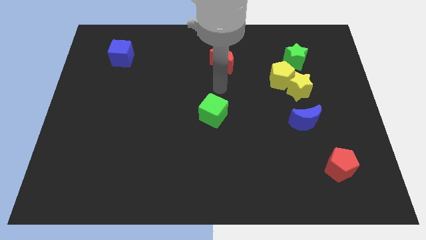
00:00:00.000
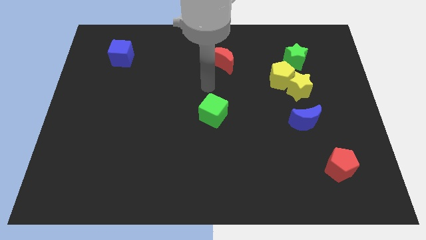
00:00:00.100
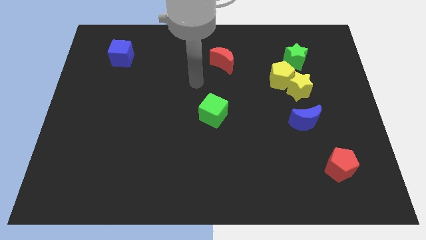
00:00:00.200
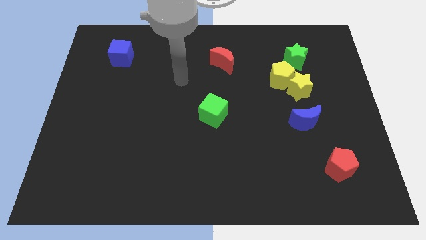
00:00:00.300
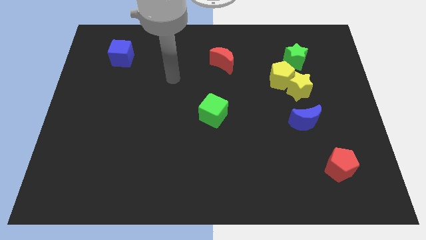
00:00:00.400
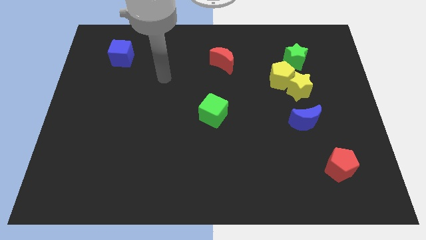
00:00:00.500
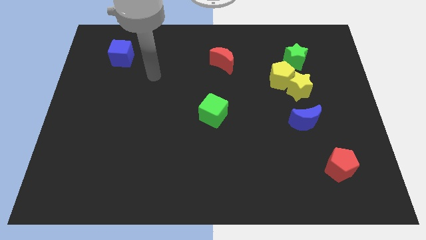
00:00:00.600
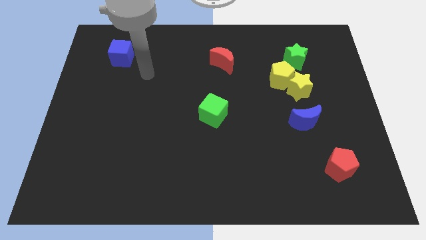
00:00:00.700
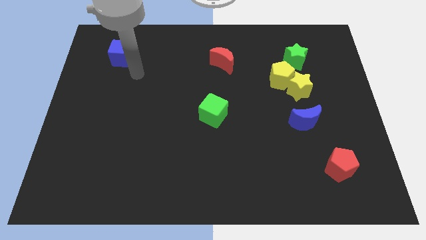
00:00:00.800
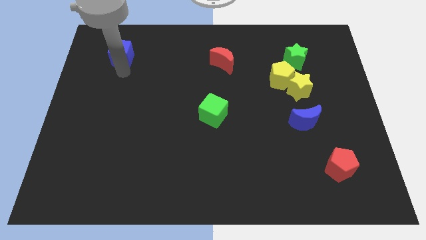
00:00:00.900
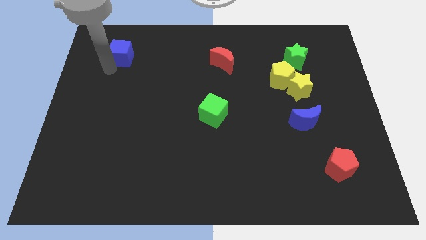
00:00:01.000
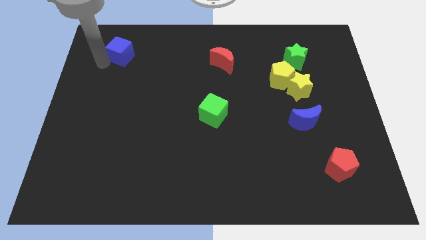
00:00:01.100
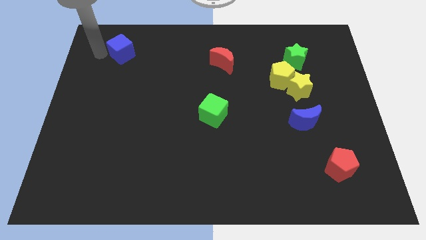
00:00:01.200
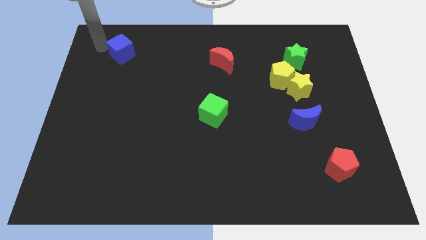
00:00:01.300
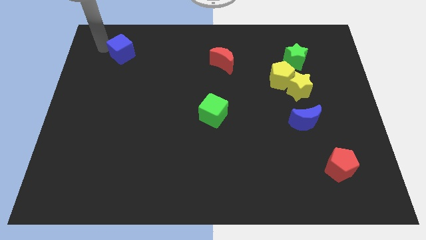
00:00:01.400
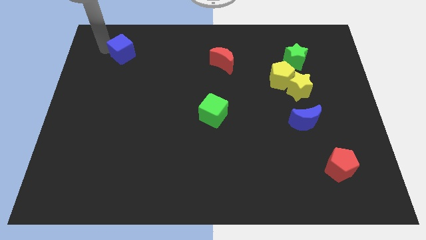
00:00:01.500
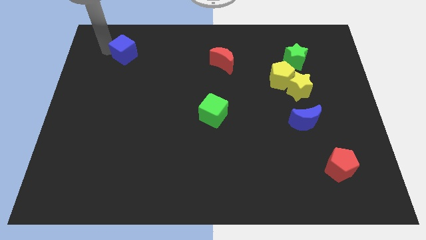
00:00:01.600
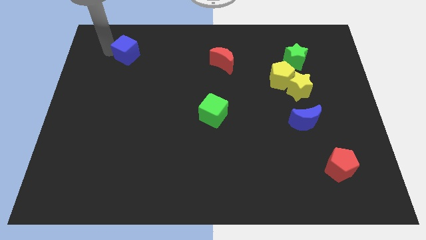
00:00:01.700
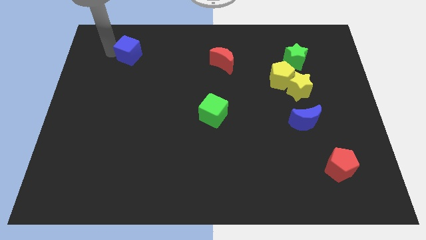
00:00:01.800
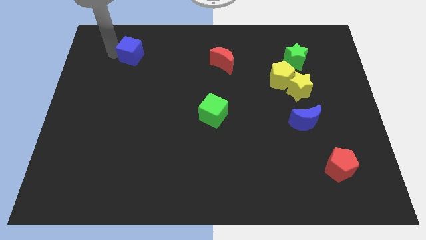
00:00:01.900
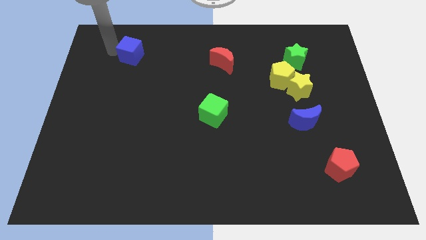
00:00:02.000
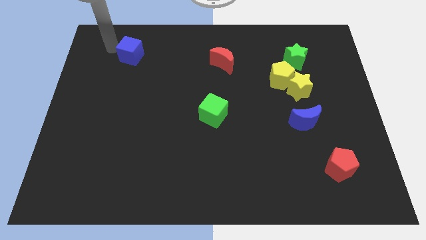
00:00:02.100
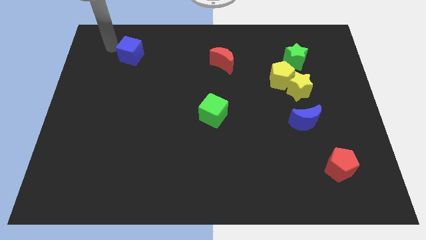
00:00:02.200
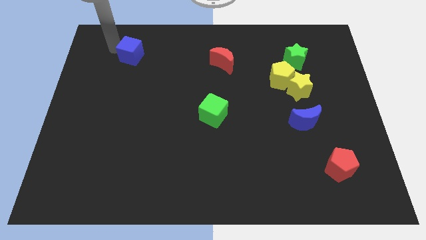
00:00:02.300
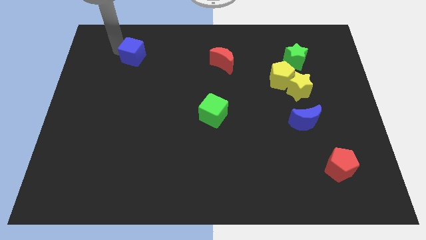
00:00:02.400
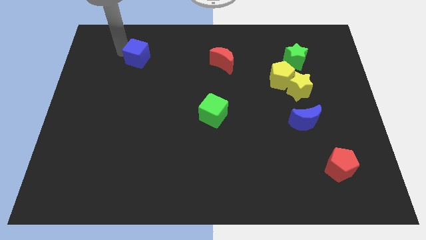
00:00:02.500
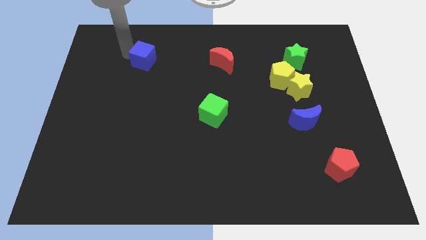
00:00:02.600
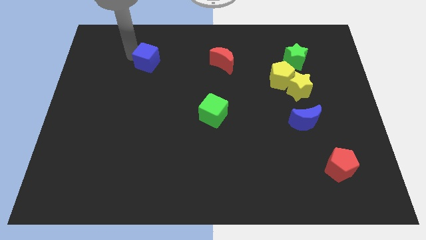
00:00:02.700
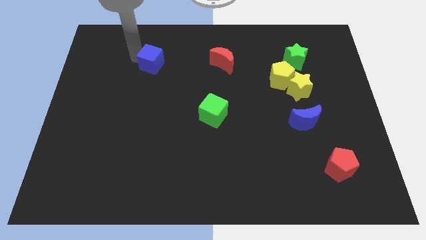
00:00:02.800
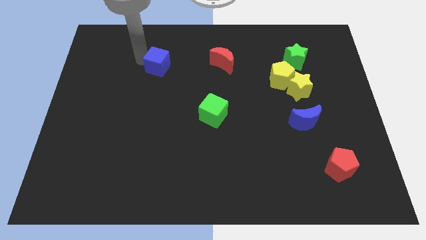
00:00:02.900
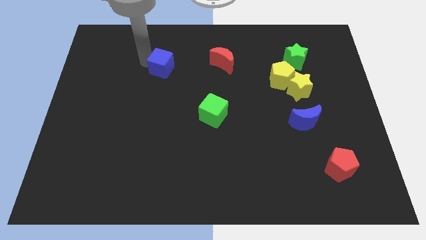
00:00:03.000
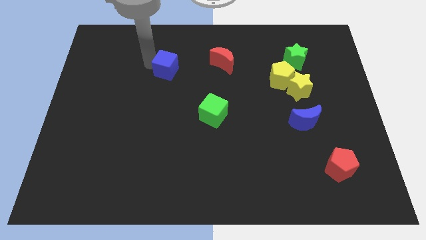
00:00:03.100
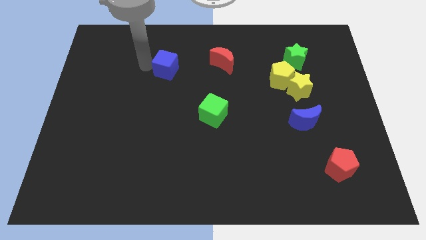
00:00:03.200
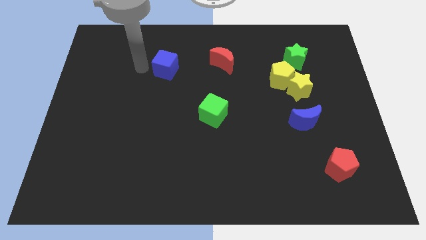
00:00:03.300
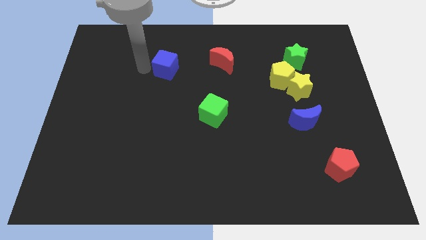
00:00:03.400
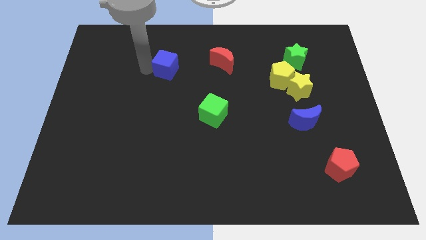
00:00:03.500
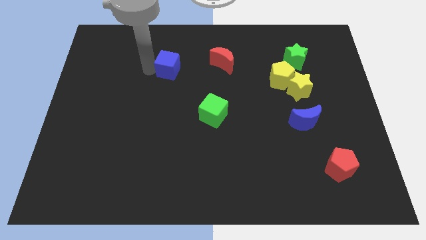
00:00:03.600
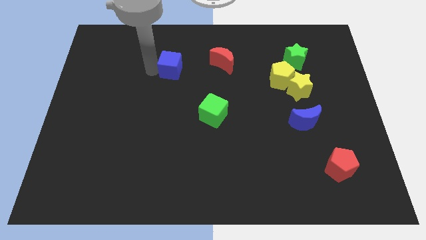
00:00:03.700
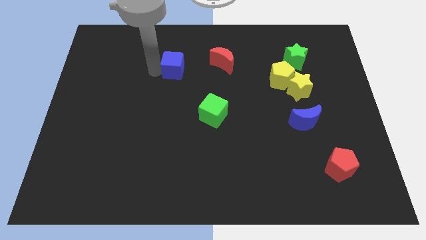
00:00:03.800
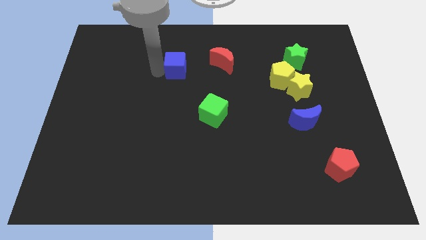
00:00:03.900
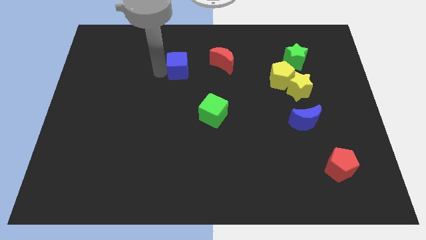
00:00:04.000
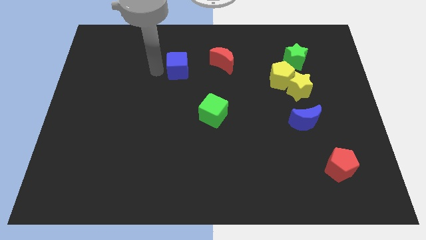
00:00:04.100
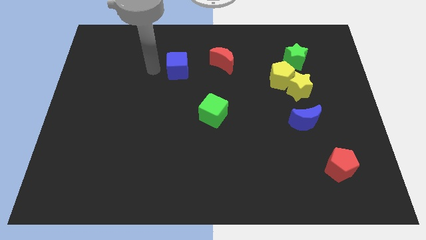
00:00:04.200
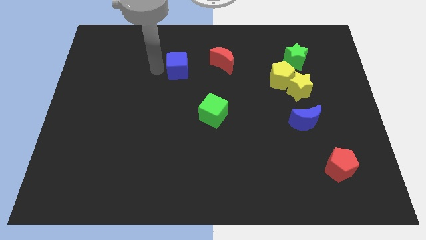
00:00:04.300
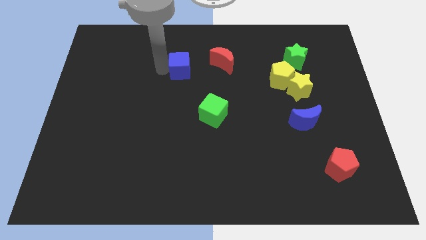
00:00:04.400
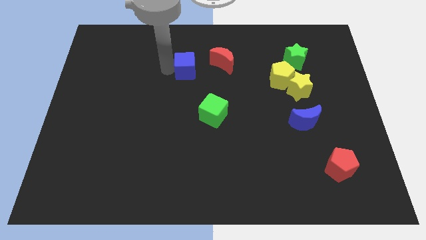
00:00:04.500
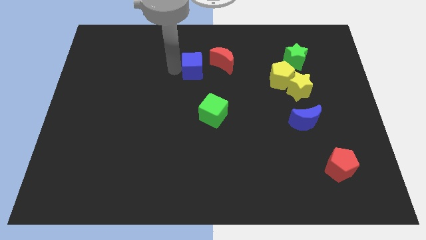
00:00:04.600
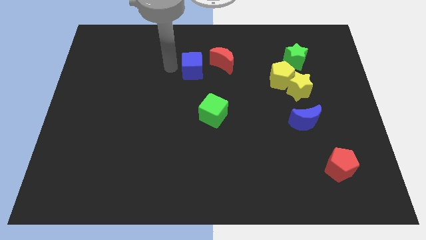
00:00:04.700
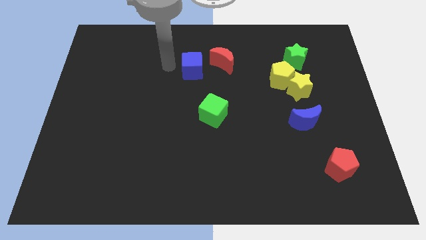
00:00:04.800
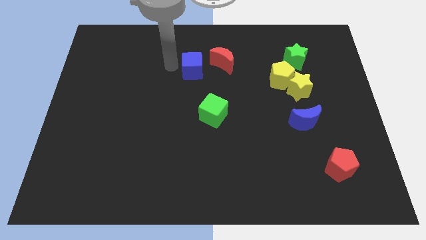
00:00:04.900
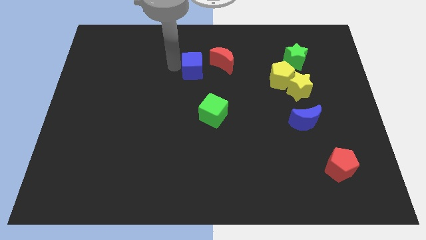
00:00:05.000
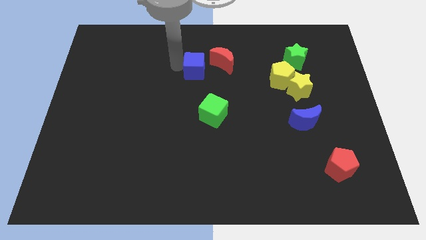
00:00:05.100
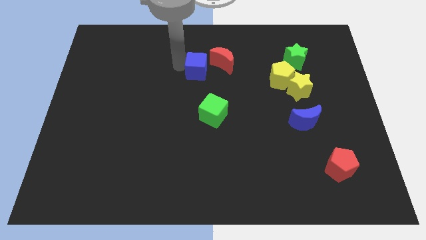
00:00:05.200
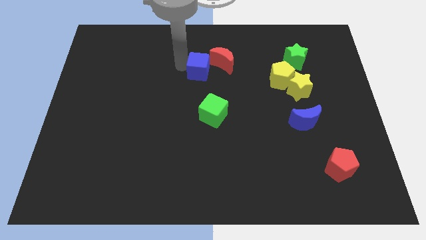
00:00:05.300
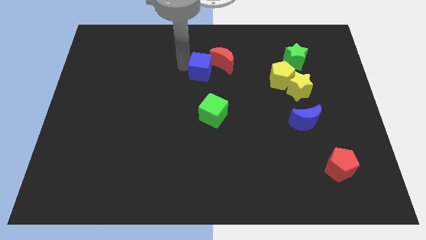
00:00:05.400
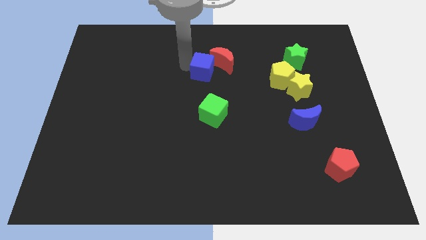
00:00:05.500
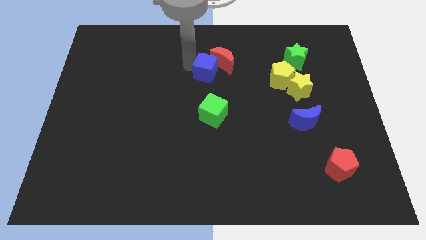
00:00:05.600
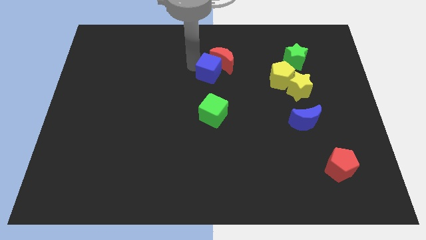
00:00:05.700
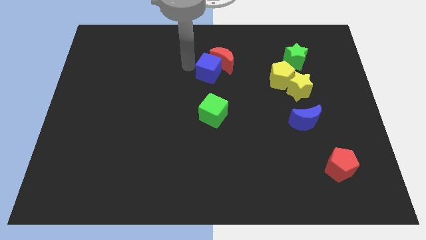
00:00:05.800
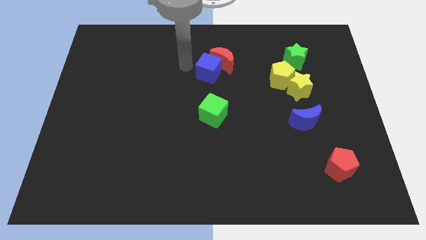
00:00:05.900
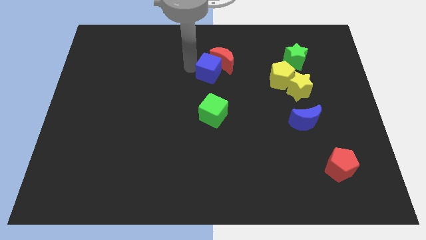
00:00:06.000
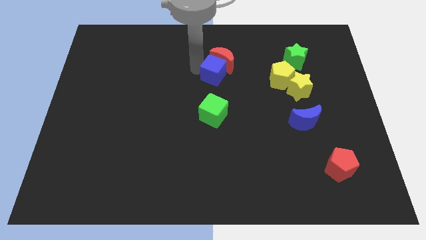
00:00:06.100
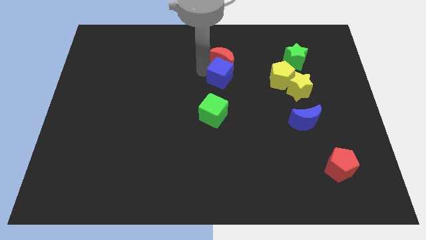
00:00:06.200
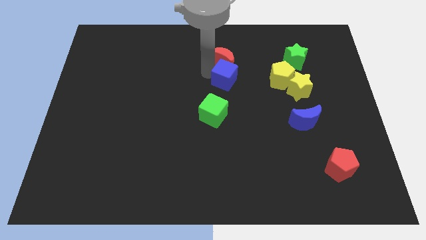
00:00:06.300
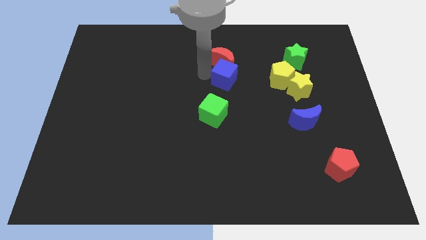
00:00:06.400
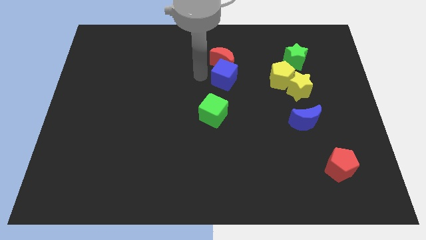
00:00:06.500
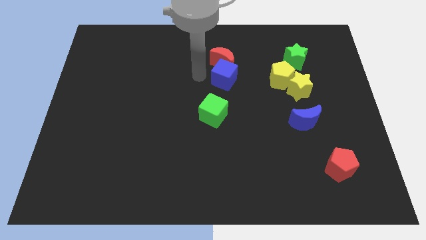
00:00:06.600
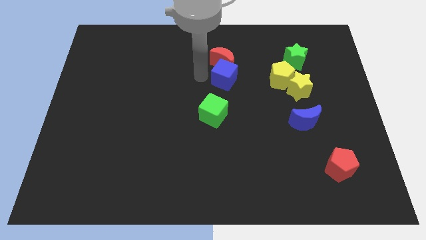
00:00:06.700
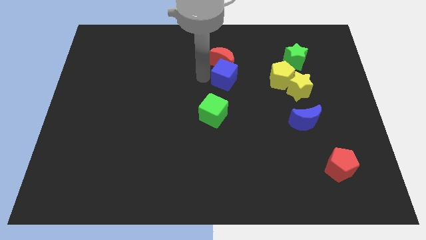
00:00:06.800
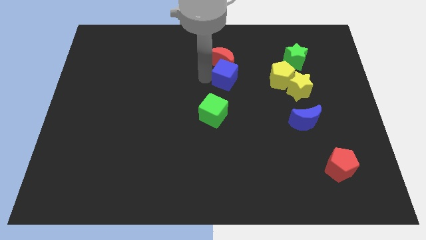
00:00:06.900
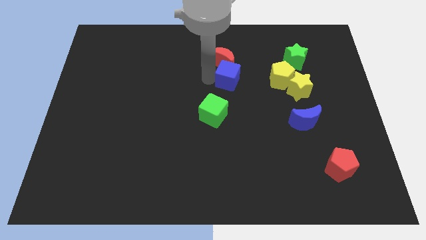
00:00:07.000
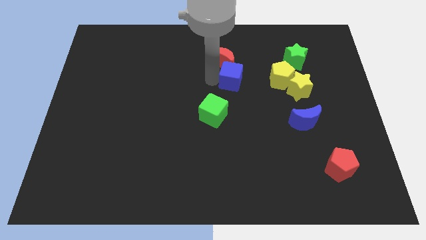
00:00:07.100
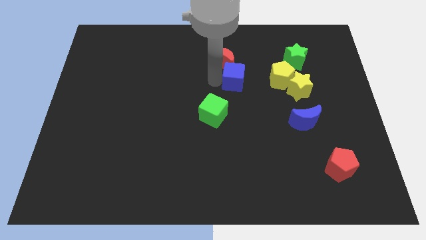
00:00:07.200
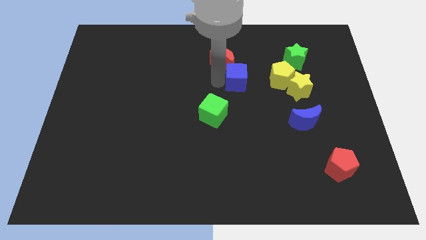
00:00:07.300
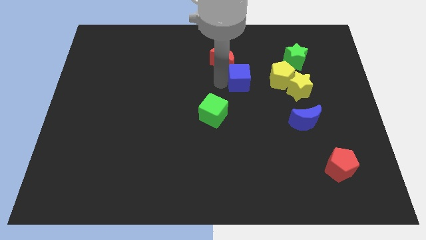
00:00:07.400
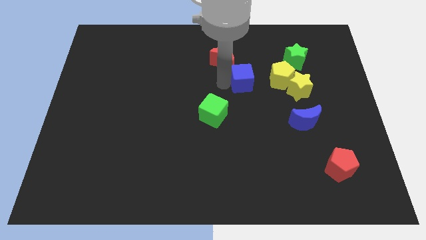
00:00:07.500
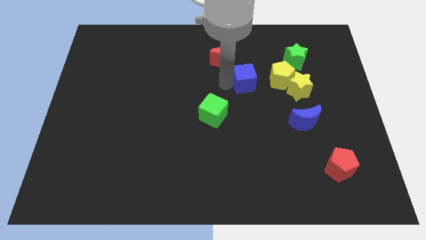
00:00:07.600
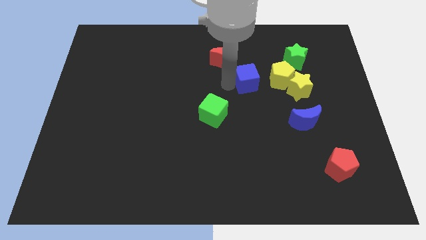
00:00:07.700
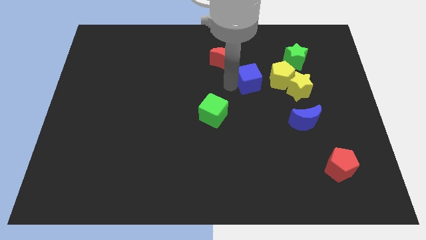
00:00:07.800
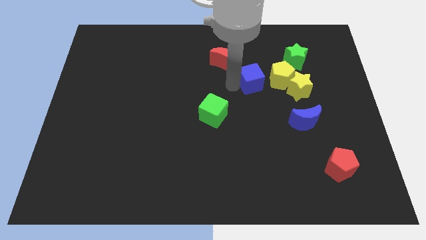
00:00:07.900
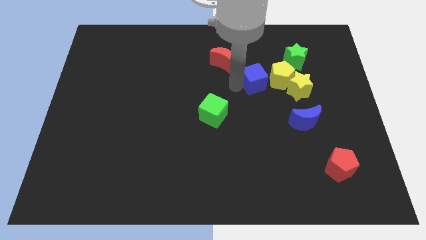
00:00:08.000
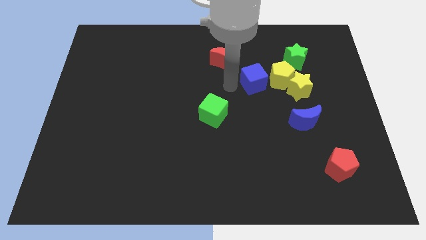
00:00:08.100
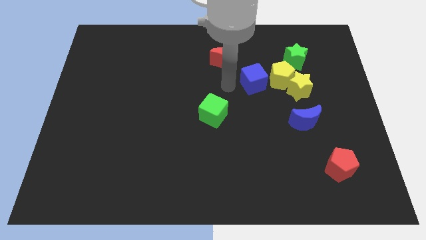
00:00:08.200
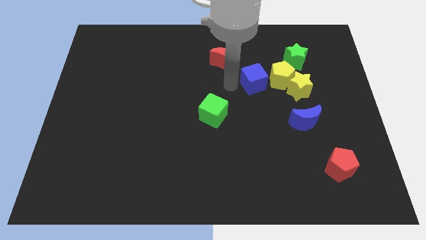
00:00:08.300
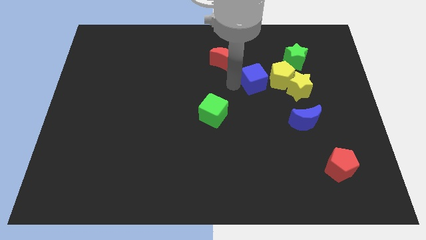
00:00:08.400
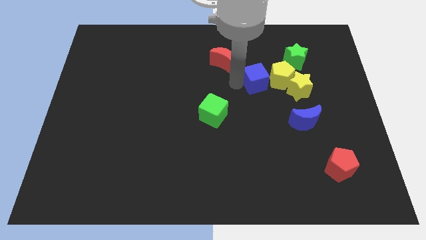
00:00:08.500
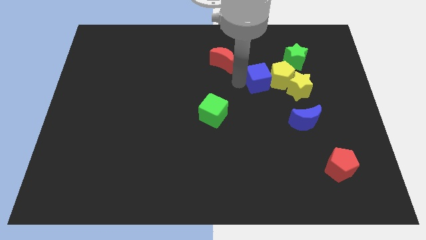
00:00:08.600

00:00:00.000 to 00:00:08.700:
move the blue cube close to the yellow pentagon
